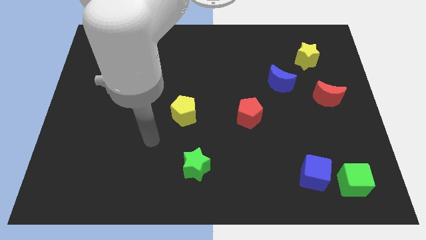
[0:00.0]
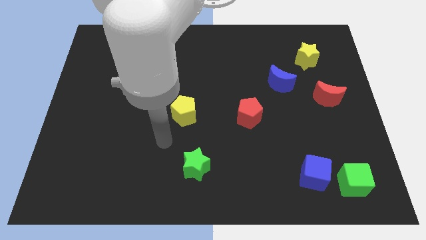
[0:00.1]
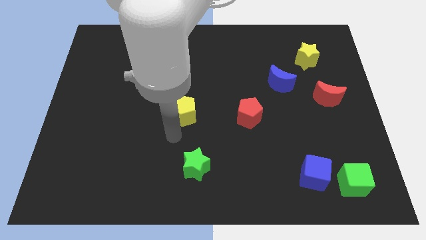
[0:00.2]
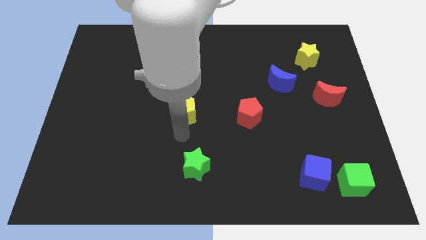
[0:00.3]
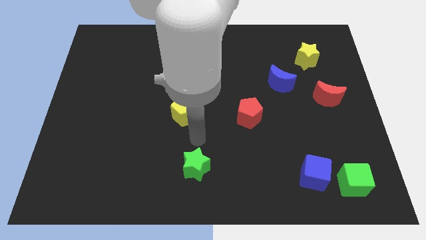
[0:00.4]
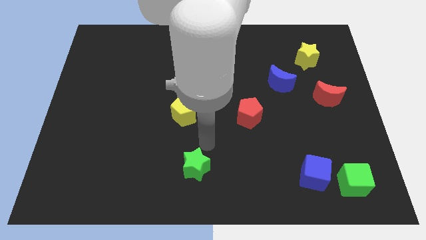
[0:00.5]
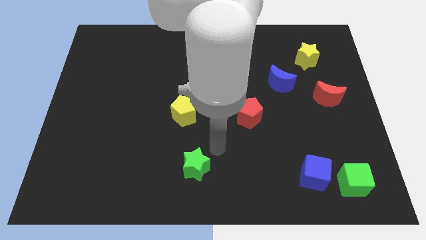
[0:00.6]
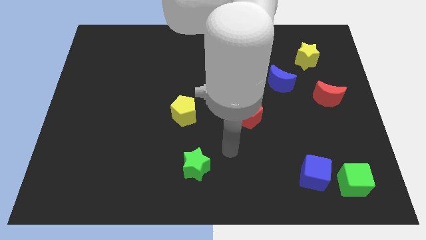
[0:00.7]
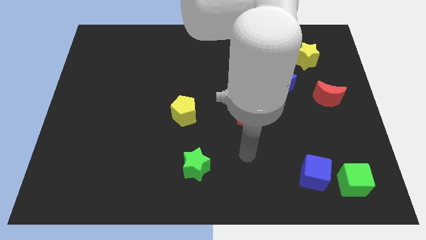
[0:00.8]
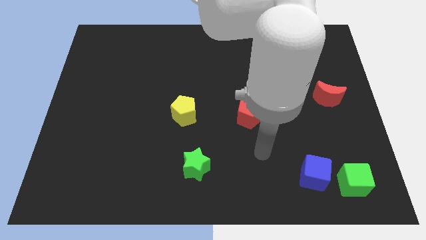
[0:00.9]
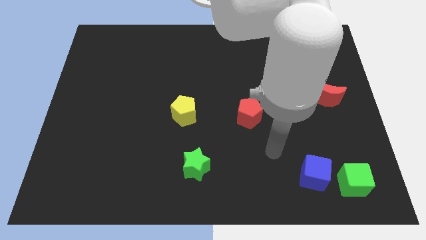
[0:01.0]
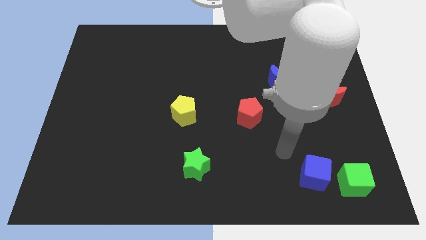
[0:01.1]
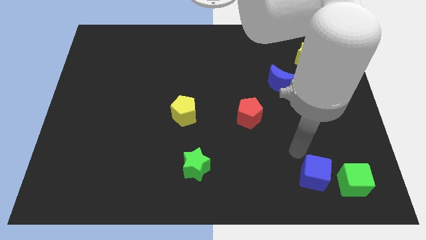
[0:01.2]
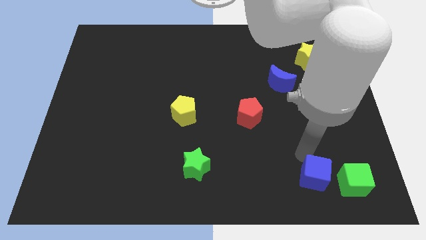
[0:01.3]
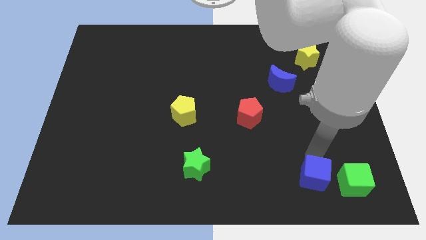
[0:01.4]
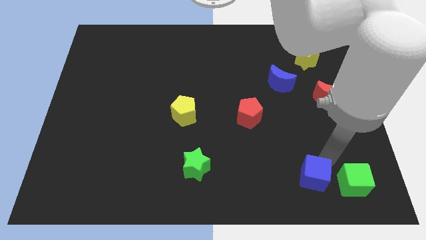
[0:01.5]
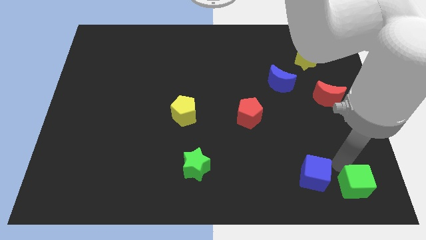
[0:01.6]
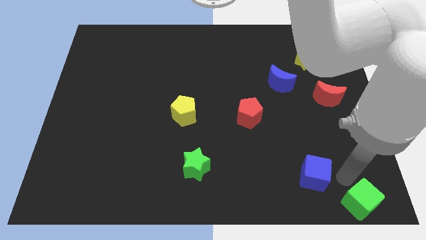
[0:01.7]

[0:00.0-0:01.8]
move the blue cube away from the green cube

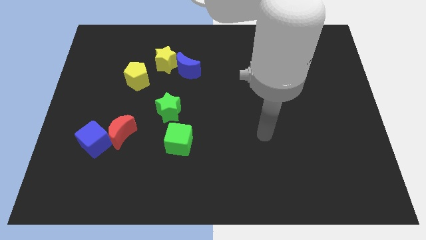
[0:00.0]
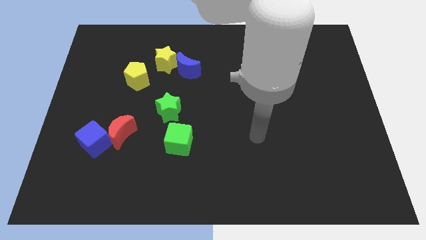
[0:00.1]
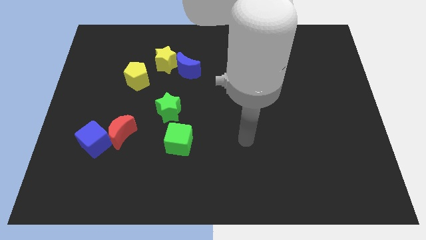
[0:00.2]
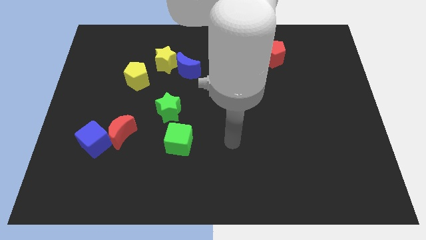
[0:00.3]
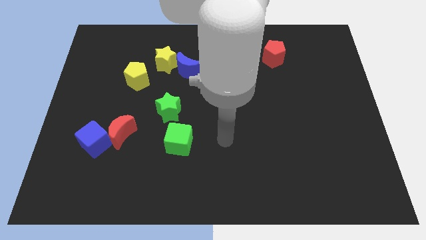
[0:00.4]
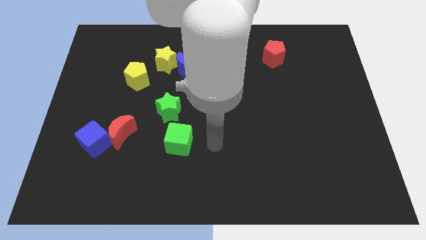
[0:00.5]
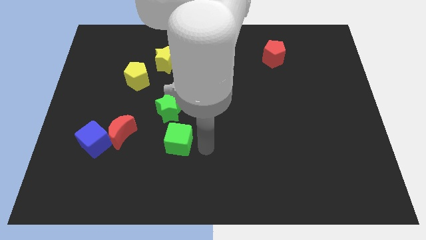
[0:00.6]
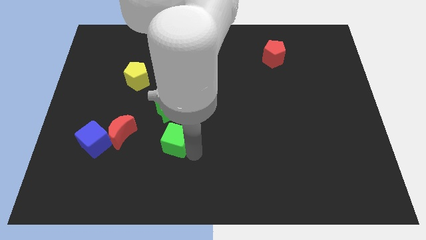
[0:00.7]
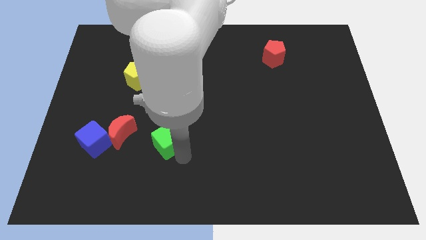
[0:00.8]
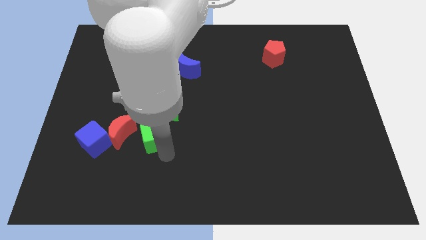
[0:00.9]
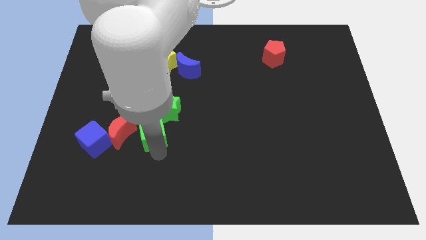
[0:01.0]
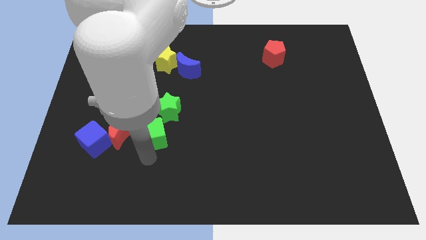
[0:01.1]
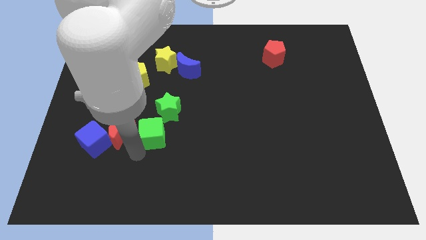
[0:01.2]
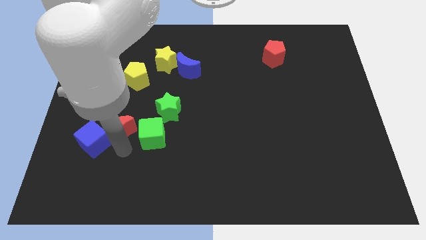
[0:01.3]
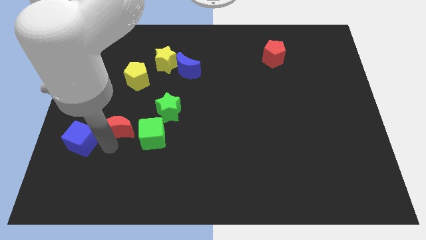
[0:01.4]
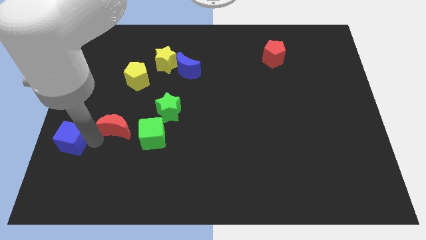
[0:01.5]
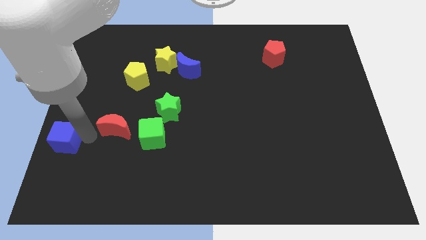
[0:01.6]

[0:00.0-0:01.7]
pull the red moon apart from the blue cube

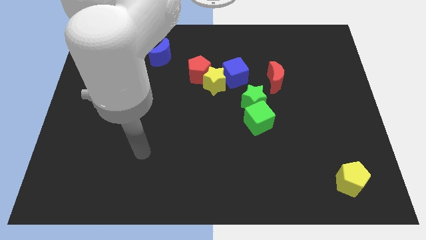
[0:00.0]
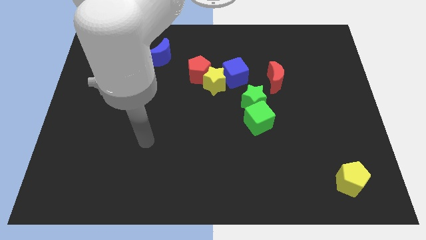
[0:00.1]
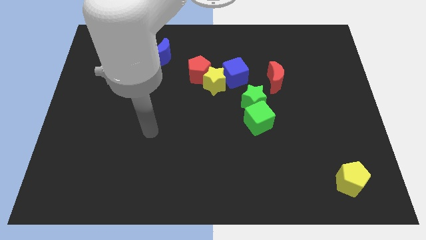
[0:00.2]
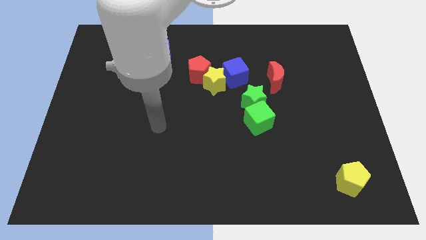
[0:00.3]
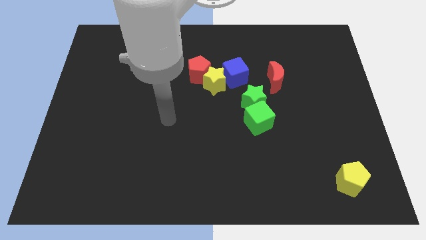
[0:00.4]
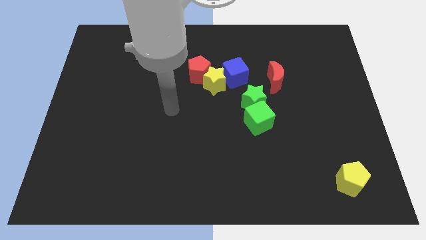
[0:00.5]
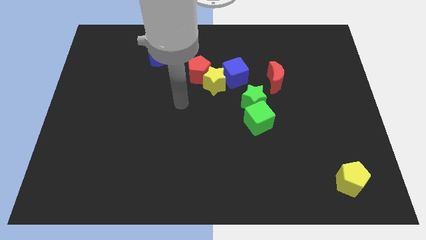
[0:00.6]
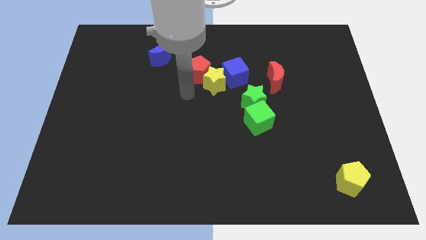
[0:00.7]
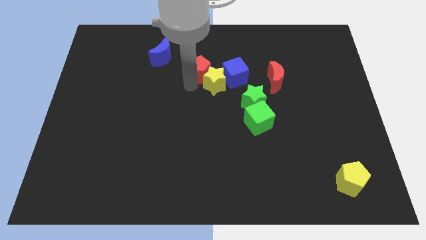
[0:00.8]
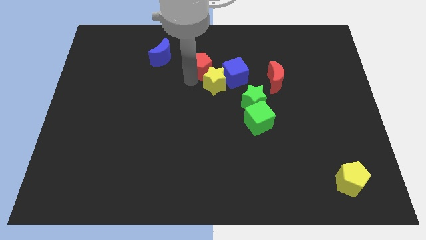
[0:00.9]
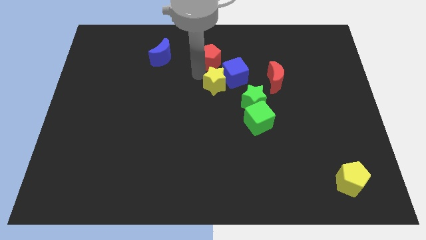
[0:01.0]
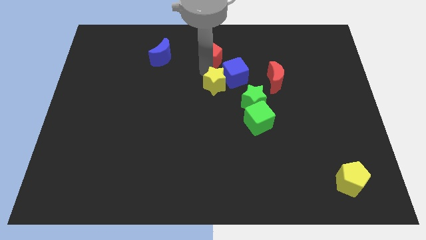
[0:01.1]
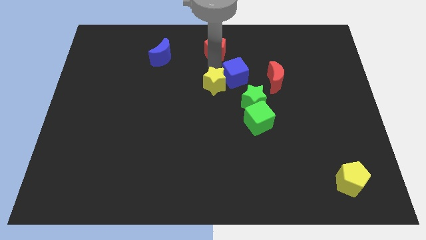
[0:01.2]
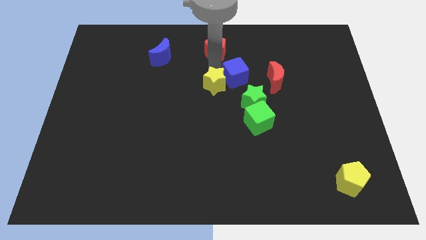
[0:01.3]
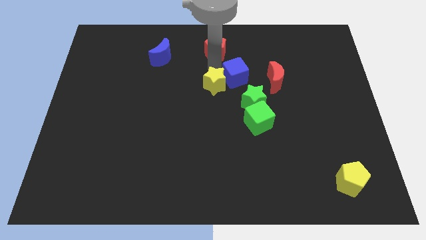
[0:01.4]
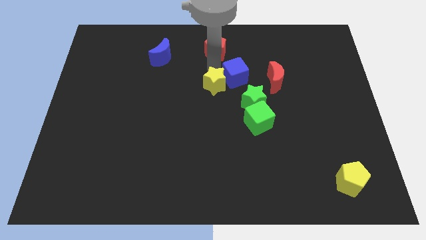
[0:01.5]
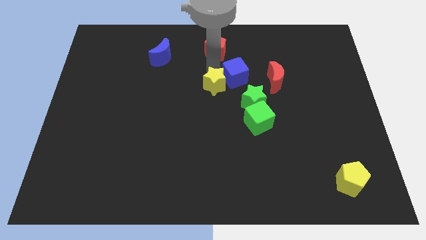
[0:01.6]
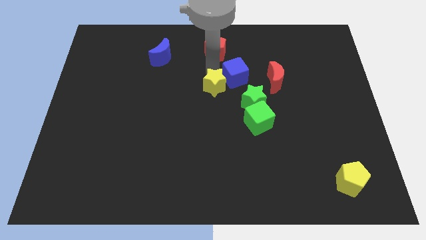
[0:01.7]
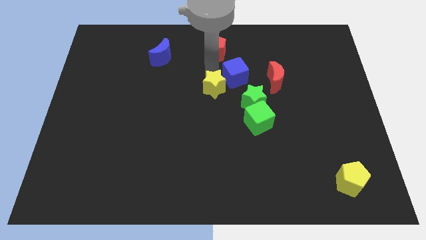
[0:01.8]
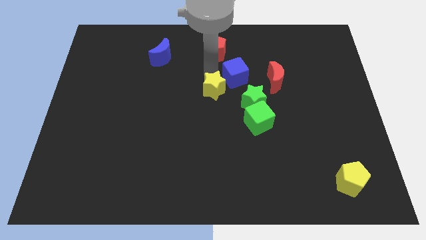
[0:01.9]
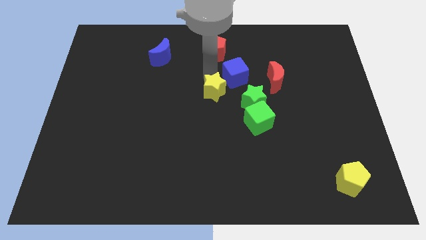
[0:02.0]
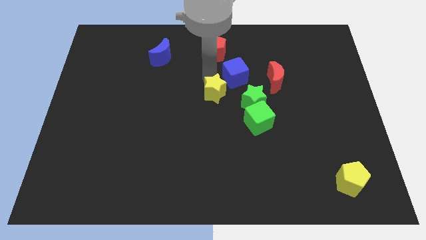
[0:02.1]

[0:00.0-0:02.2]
move the yellow star away from the blue cube and red pentagon

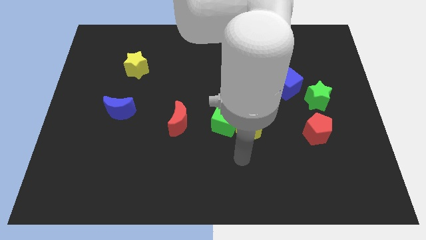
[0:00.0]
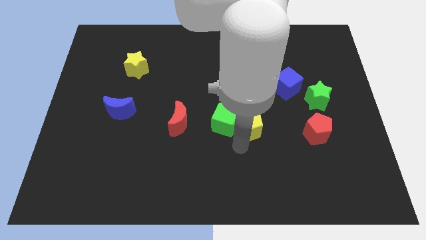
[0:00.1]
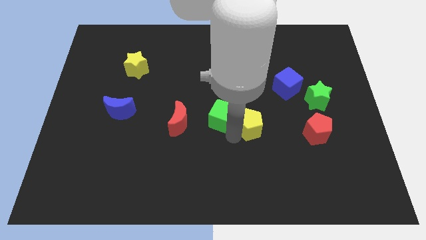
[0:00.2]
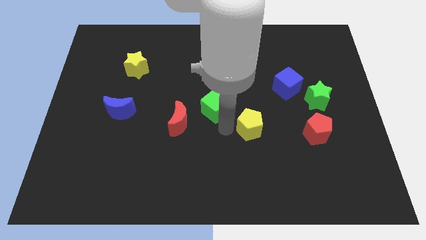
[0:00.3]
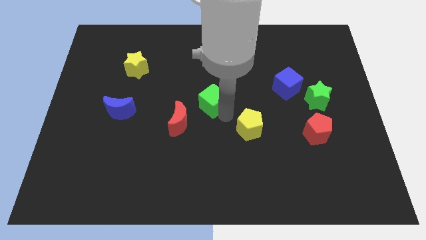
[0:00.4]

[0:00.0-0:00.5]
move the yellow pentagon away from the green cube

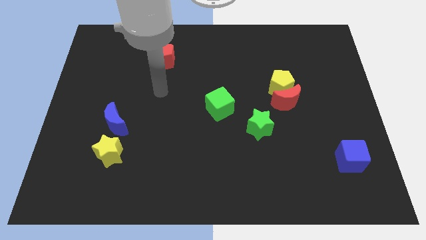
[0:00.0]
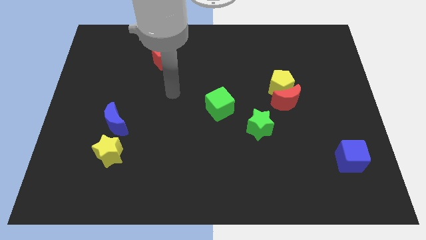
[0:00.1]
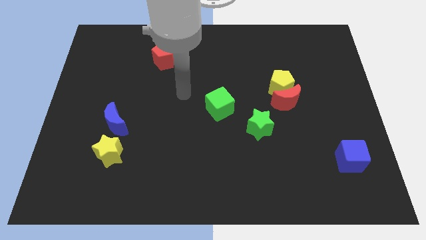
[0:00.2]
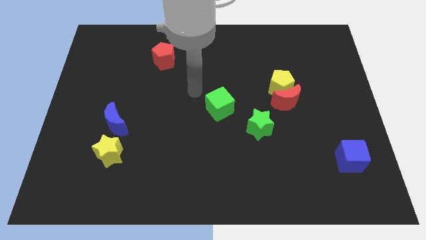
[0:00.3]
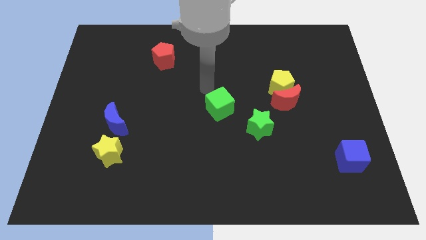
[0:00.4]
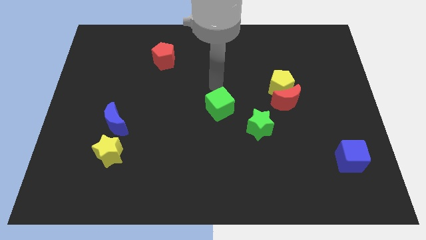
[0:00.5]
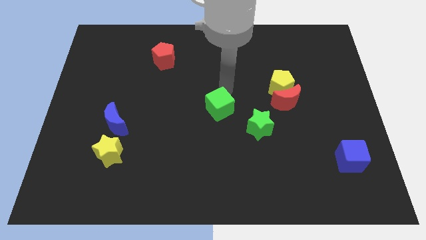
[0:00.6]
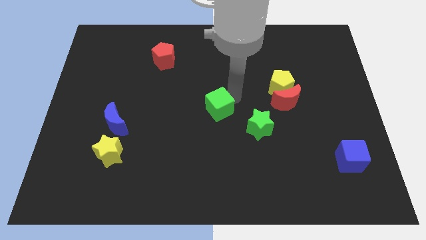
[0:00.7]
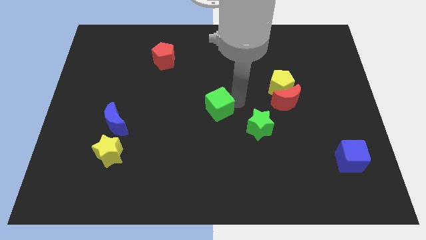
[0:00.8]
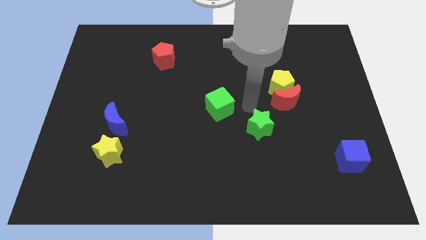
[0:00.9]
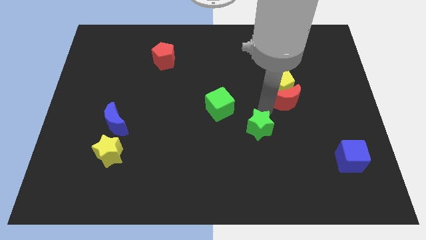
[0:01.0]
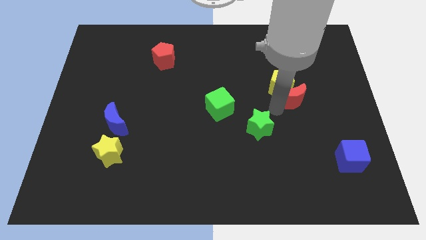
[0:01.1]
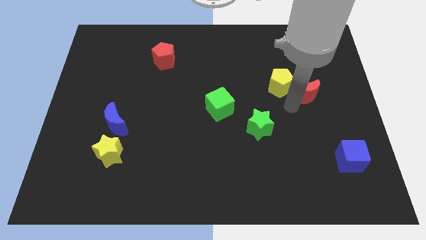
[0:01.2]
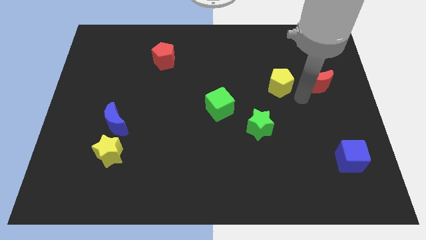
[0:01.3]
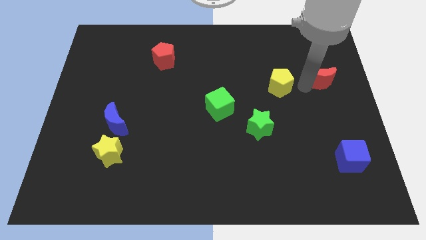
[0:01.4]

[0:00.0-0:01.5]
move the yellow pentagon away from the red moon

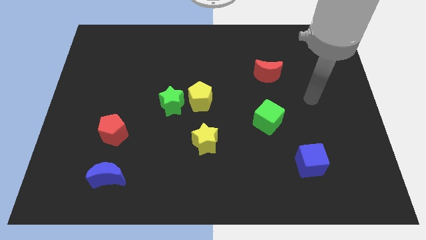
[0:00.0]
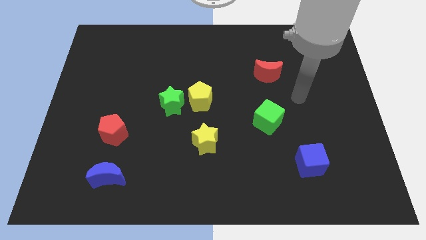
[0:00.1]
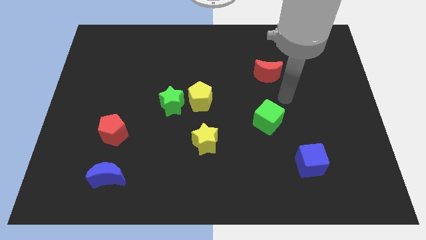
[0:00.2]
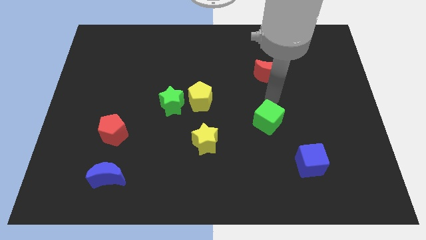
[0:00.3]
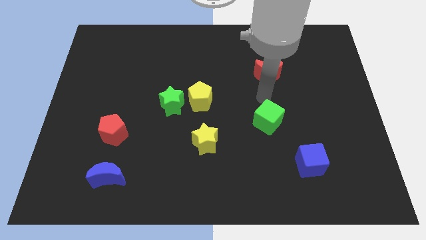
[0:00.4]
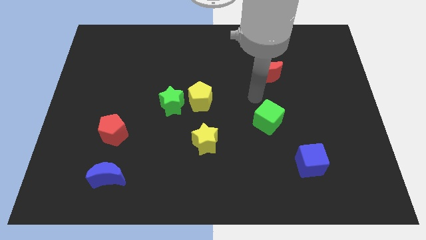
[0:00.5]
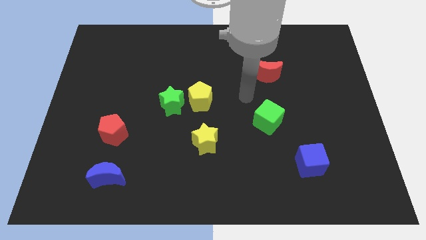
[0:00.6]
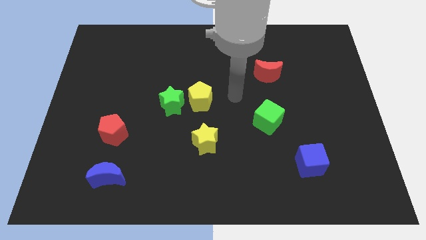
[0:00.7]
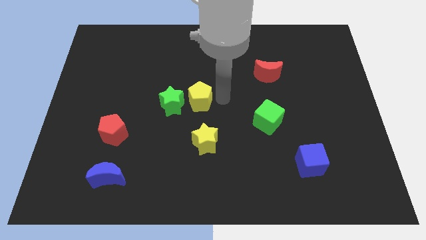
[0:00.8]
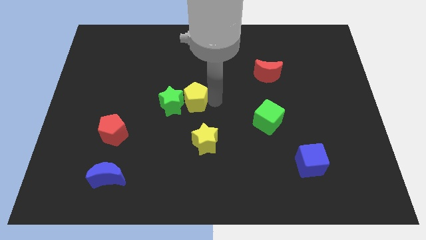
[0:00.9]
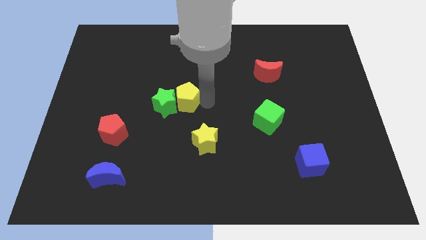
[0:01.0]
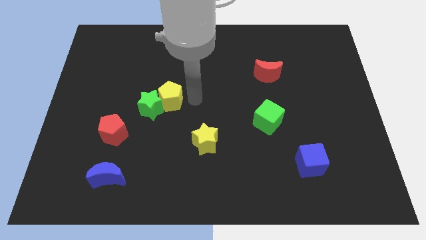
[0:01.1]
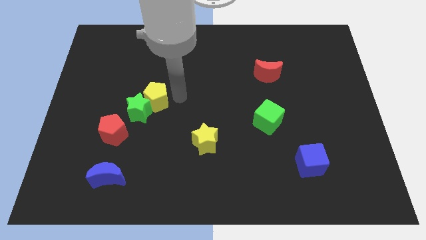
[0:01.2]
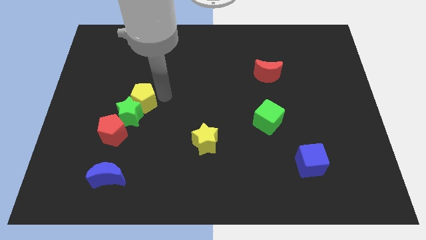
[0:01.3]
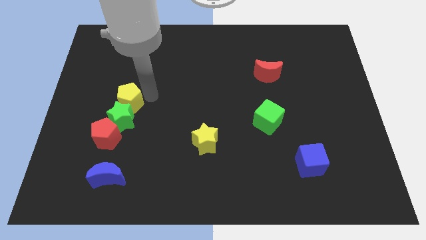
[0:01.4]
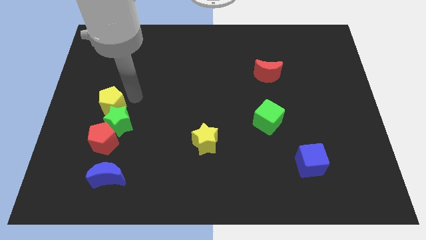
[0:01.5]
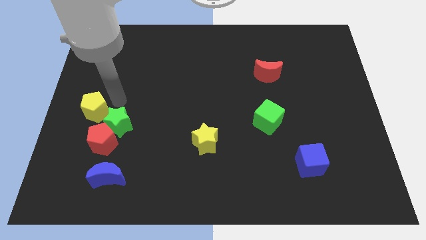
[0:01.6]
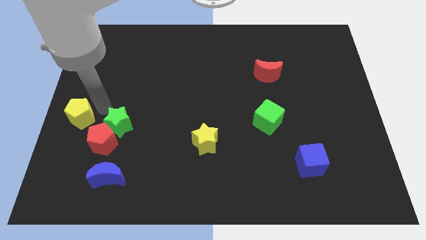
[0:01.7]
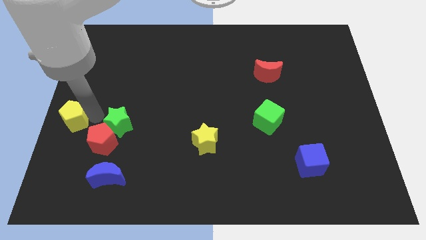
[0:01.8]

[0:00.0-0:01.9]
separate the green star from the yellow pentagon
